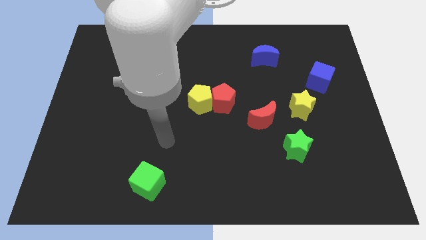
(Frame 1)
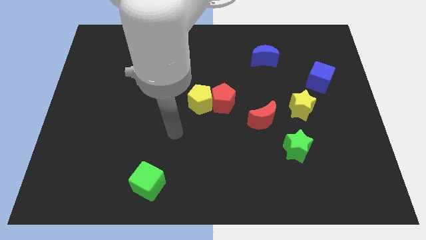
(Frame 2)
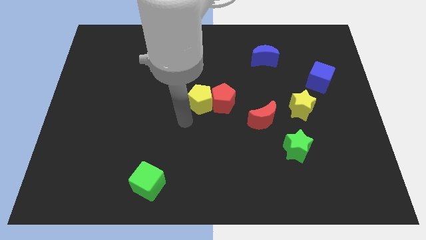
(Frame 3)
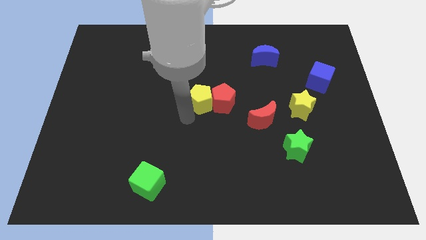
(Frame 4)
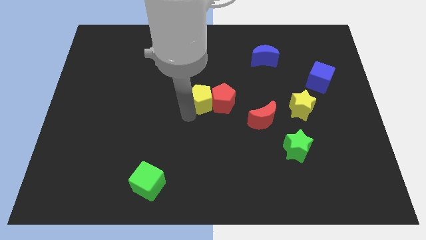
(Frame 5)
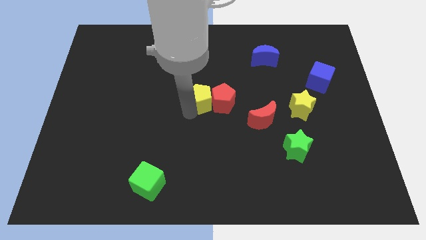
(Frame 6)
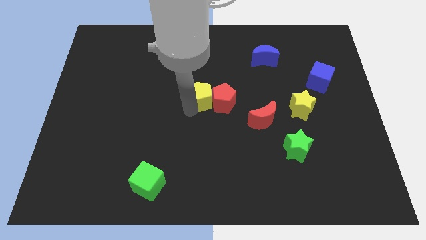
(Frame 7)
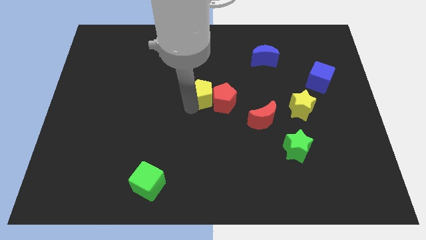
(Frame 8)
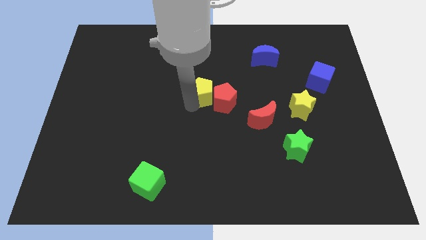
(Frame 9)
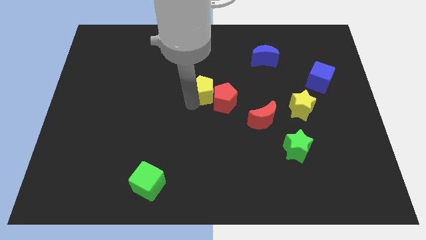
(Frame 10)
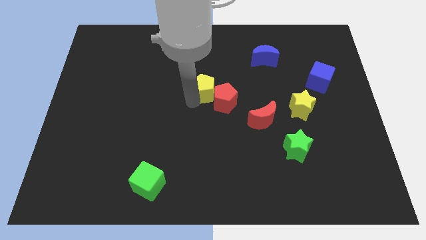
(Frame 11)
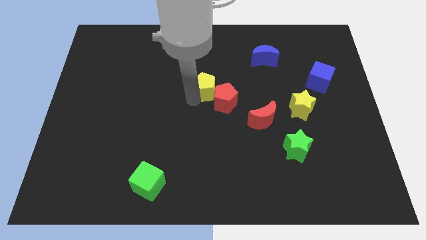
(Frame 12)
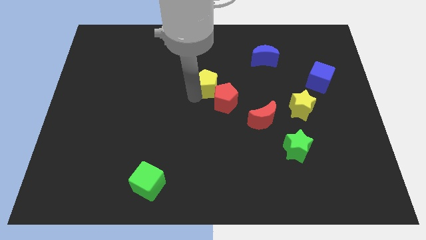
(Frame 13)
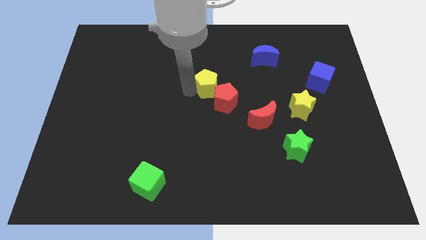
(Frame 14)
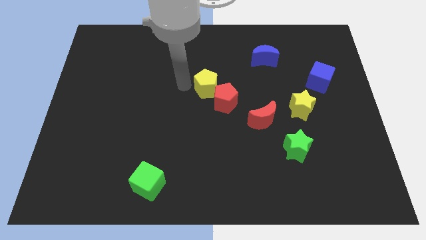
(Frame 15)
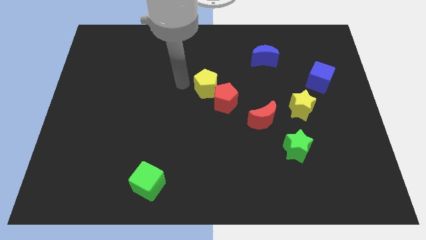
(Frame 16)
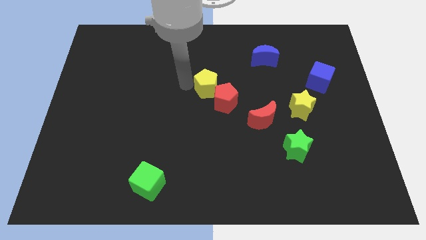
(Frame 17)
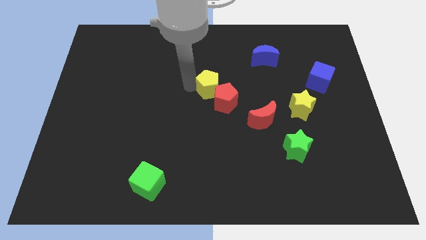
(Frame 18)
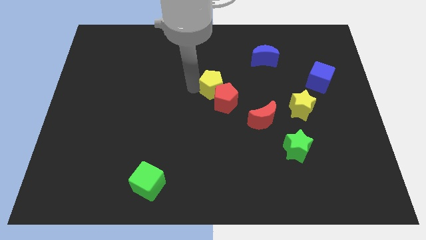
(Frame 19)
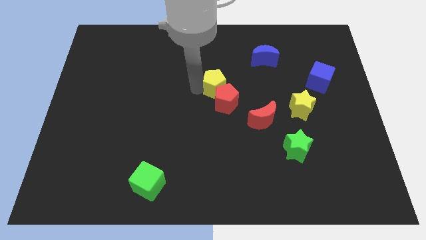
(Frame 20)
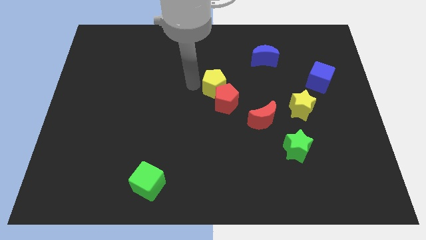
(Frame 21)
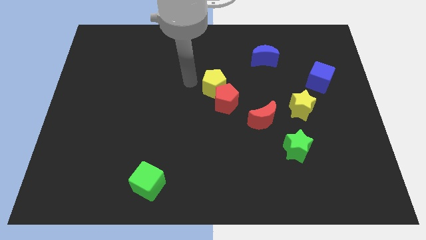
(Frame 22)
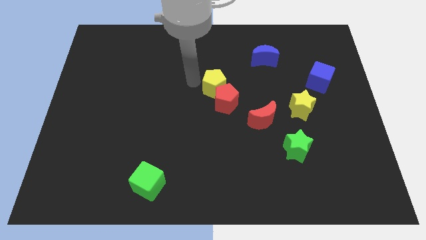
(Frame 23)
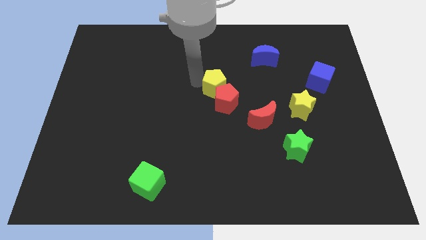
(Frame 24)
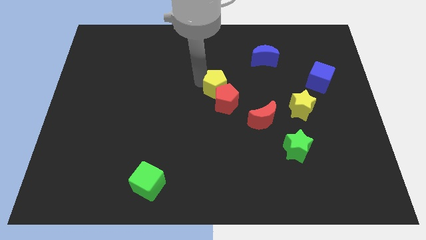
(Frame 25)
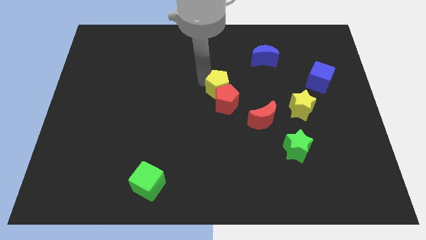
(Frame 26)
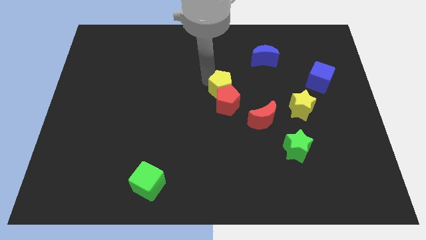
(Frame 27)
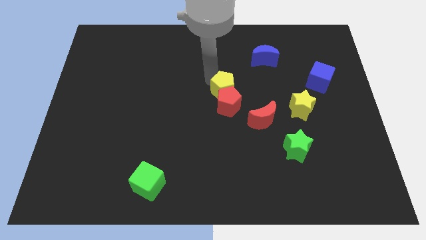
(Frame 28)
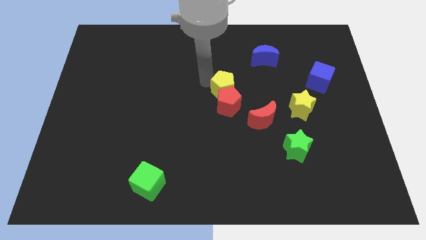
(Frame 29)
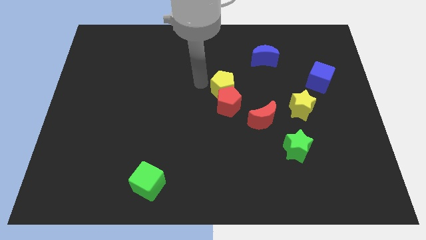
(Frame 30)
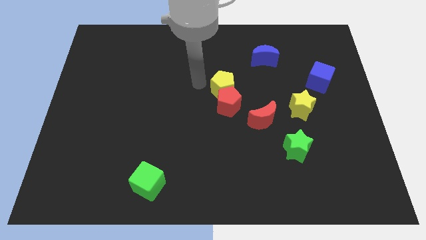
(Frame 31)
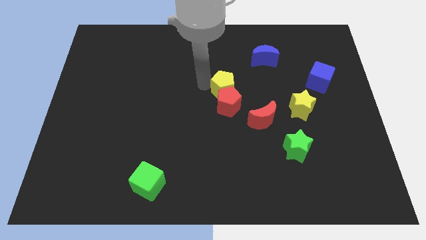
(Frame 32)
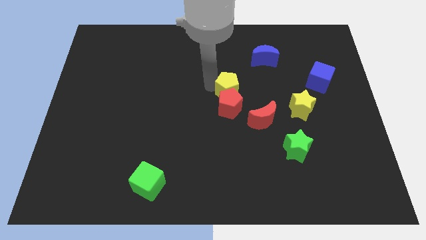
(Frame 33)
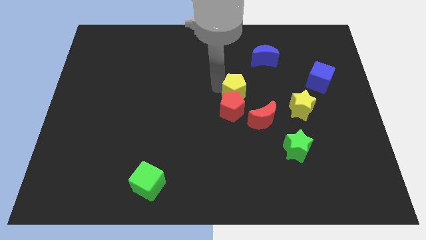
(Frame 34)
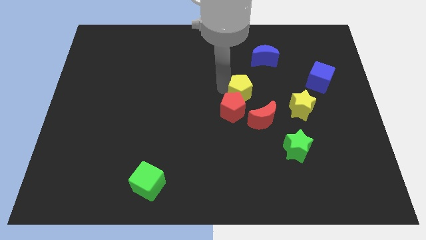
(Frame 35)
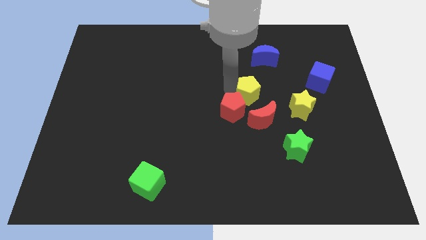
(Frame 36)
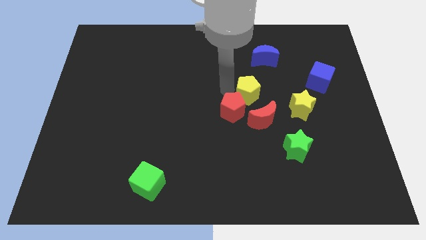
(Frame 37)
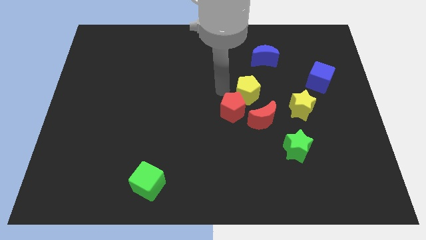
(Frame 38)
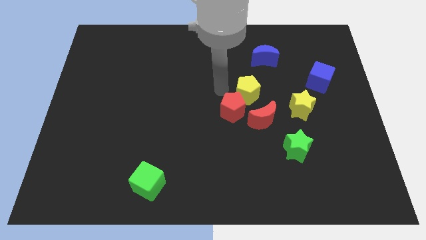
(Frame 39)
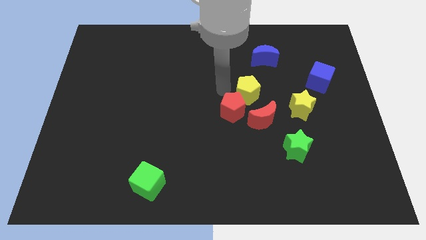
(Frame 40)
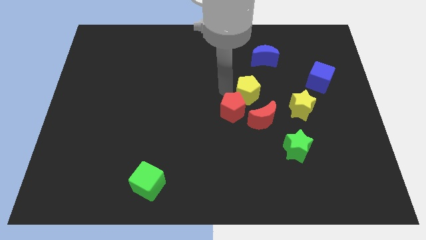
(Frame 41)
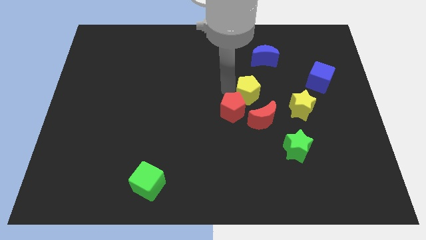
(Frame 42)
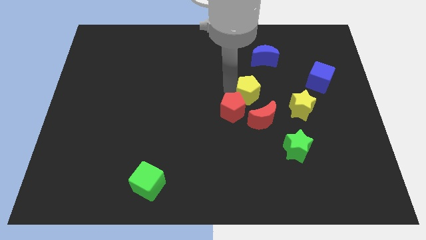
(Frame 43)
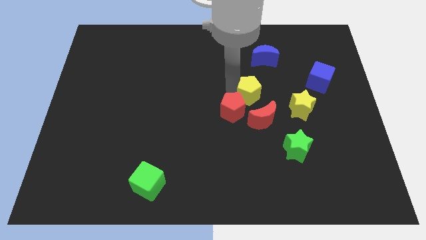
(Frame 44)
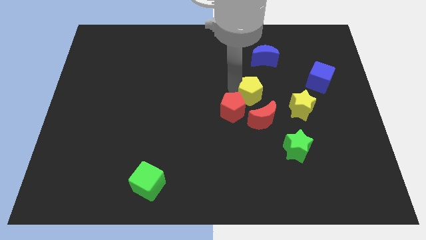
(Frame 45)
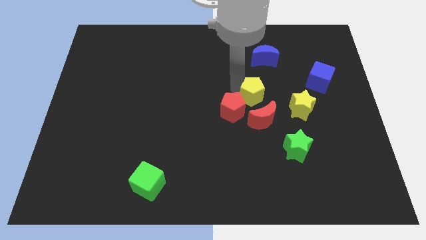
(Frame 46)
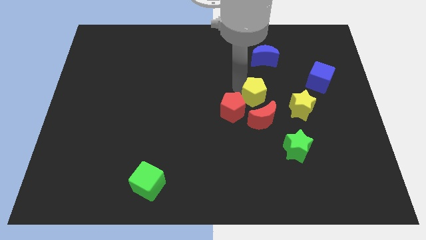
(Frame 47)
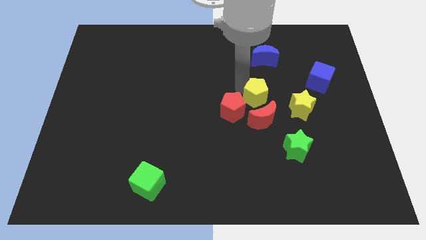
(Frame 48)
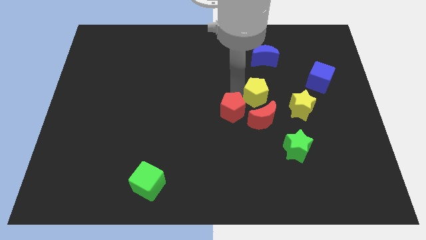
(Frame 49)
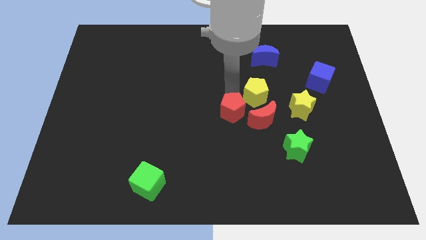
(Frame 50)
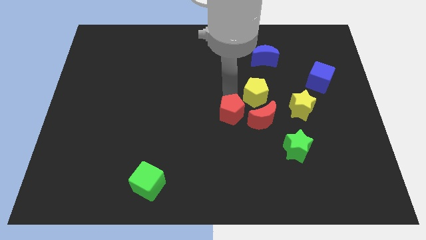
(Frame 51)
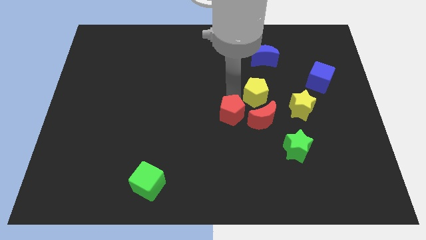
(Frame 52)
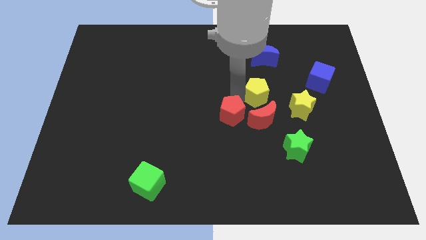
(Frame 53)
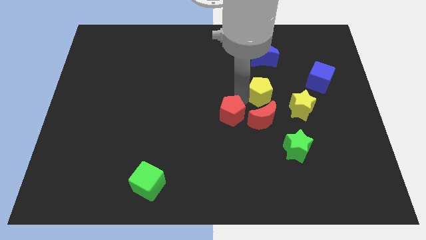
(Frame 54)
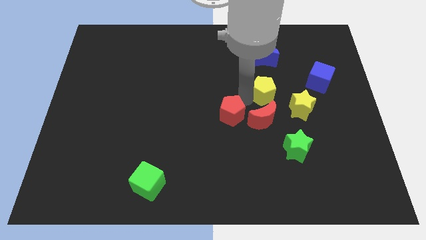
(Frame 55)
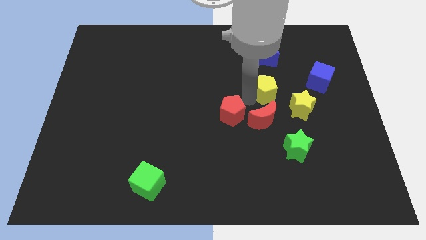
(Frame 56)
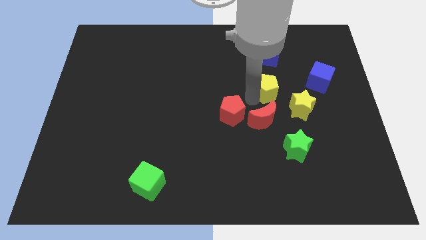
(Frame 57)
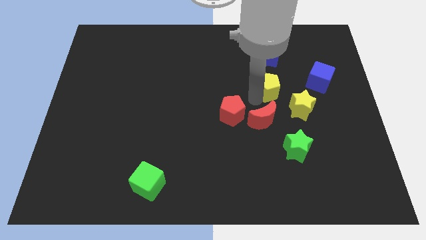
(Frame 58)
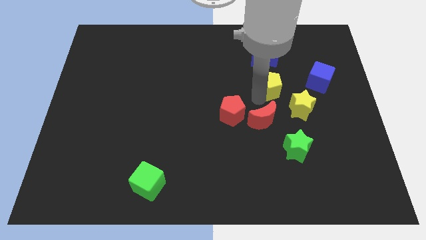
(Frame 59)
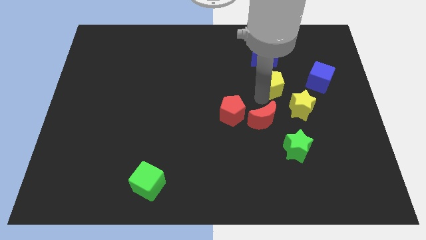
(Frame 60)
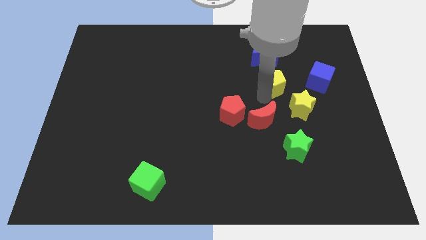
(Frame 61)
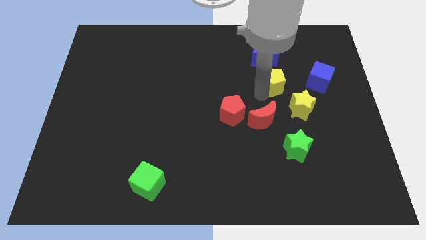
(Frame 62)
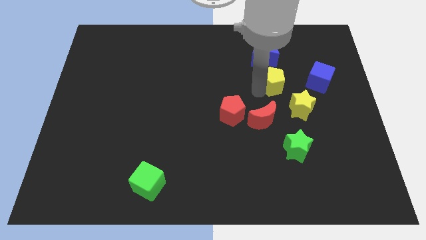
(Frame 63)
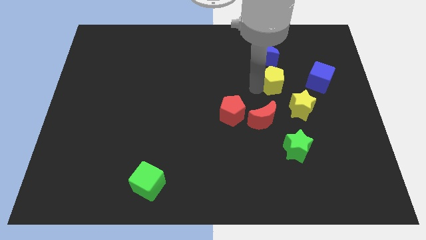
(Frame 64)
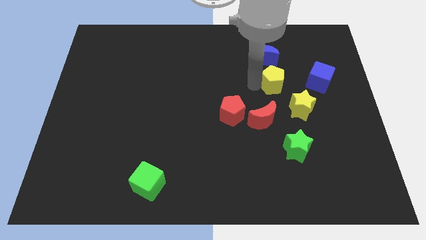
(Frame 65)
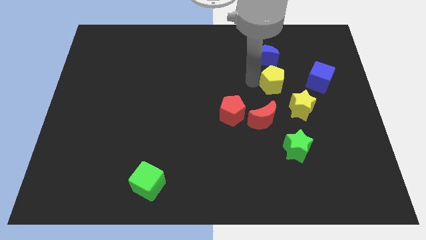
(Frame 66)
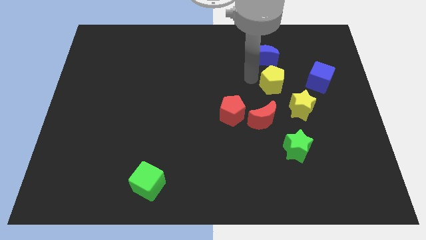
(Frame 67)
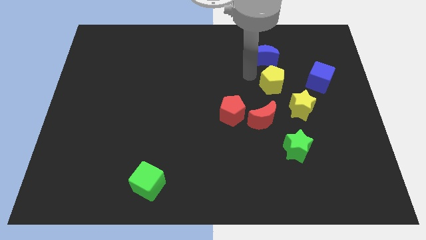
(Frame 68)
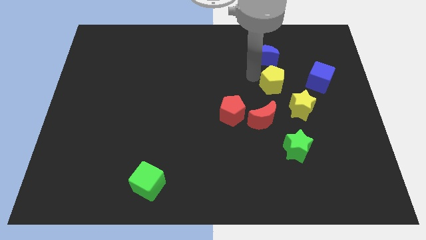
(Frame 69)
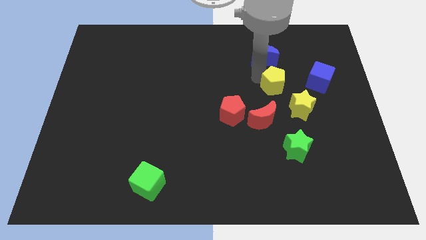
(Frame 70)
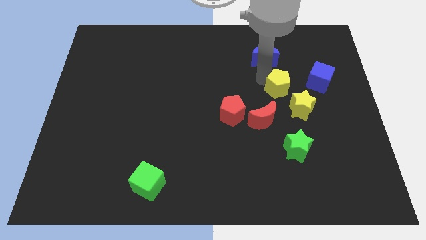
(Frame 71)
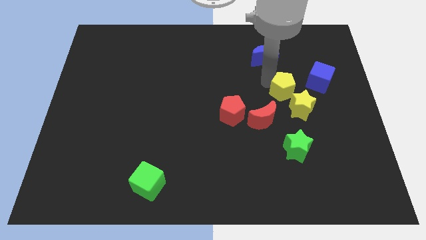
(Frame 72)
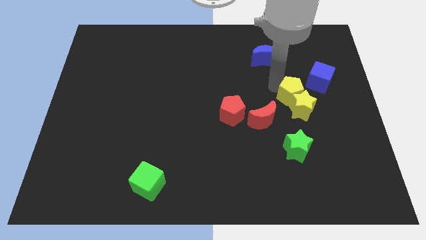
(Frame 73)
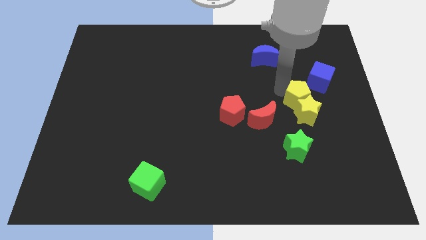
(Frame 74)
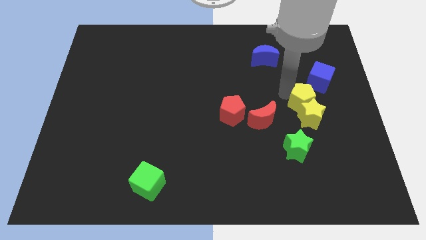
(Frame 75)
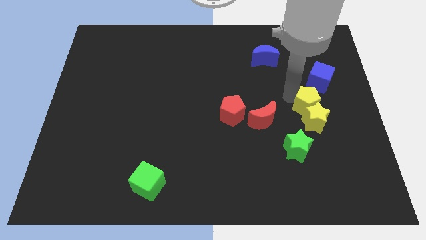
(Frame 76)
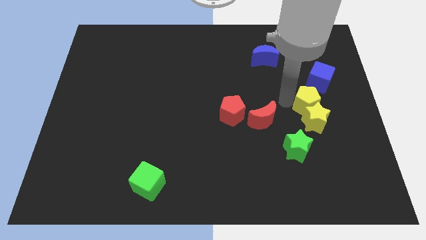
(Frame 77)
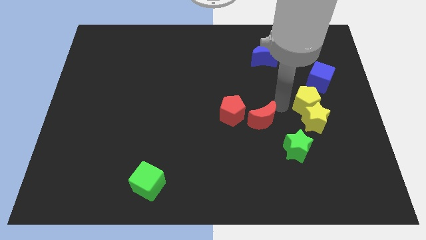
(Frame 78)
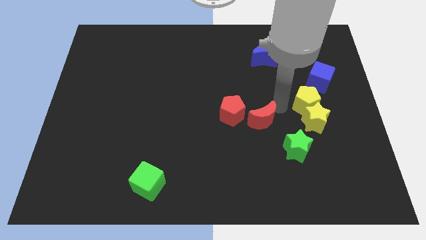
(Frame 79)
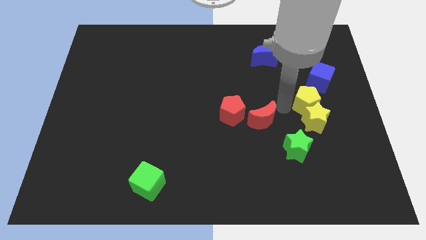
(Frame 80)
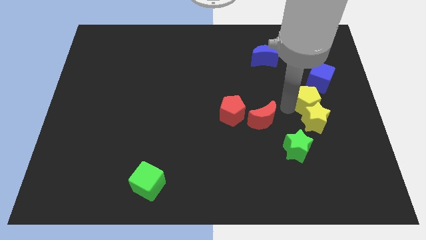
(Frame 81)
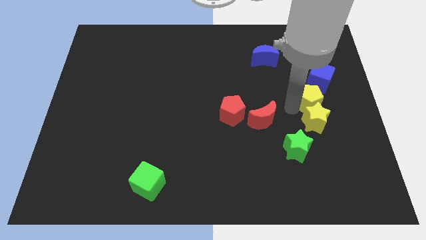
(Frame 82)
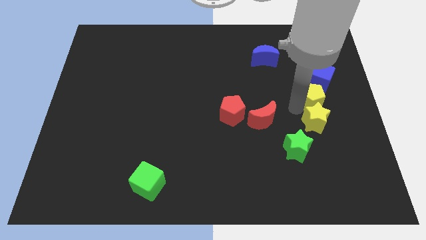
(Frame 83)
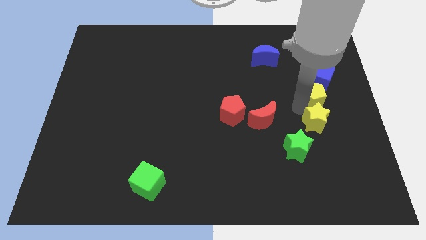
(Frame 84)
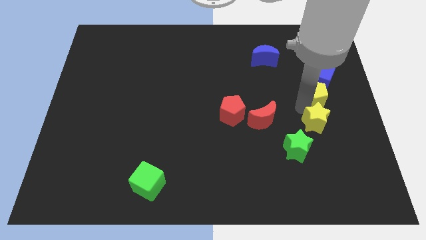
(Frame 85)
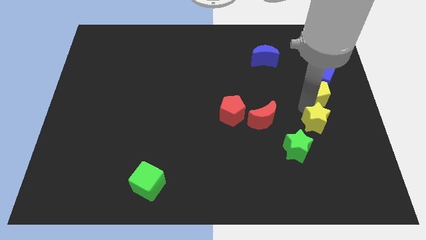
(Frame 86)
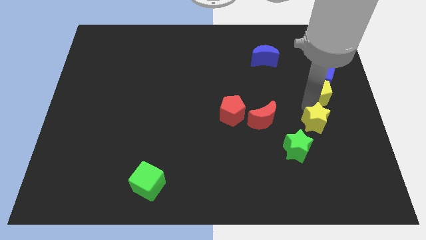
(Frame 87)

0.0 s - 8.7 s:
put the yellow pentagon to the right side of the board
